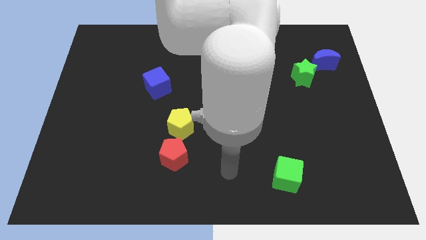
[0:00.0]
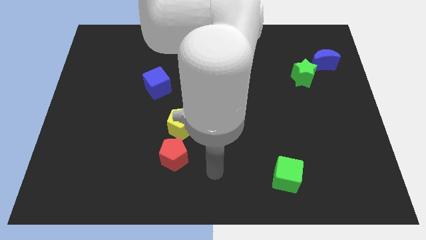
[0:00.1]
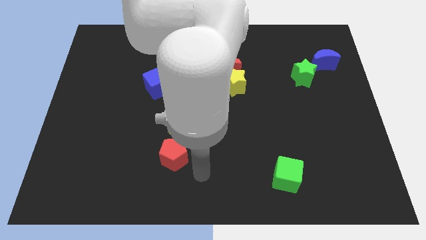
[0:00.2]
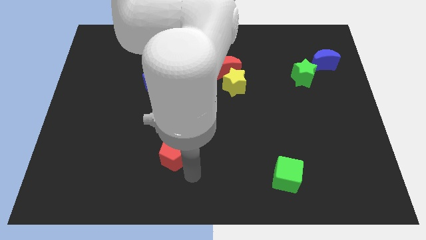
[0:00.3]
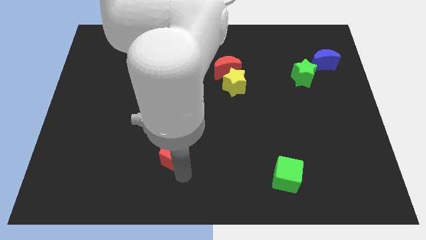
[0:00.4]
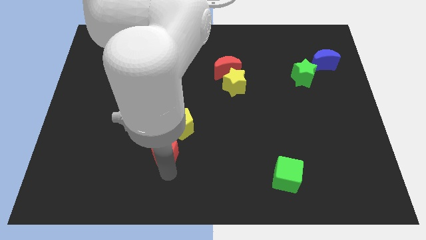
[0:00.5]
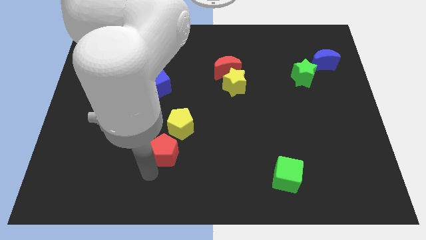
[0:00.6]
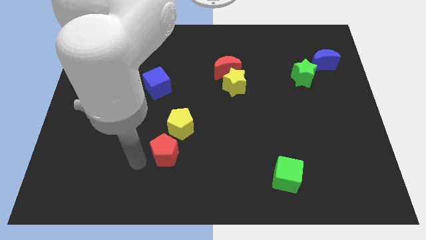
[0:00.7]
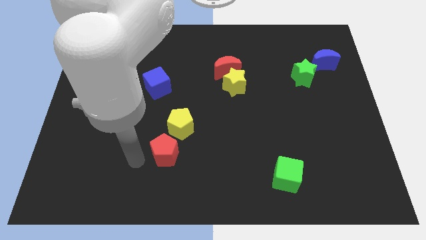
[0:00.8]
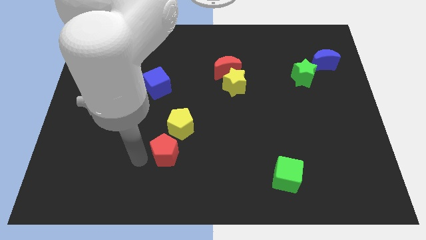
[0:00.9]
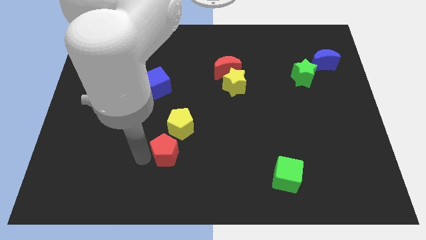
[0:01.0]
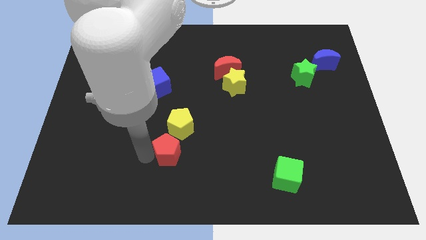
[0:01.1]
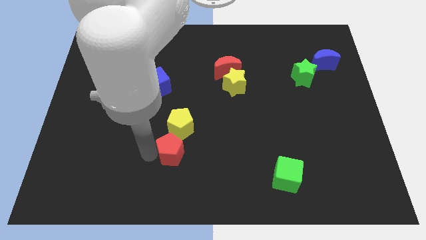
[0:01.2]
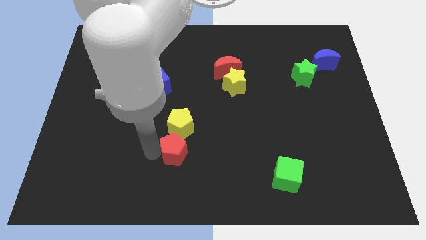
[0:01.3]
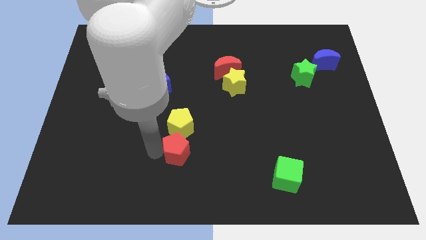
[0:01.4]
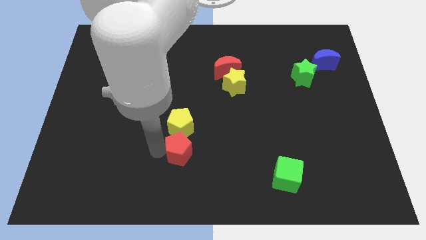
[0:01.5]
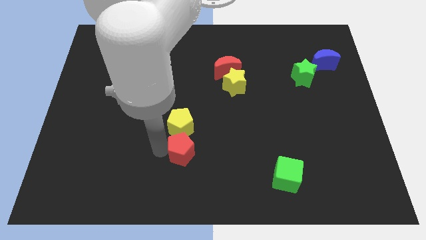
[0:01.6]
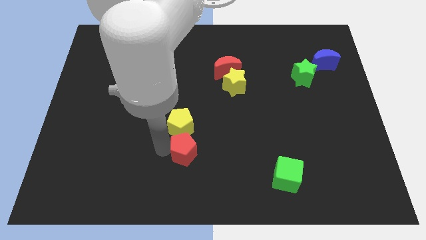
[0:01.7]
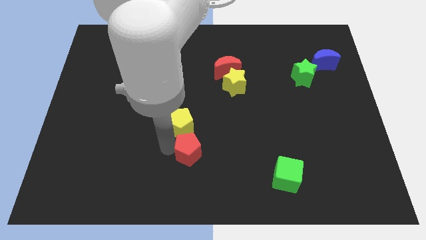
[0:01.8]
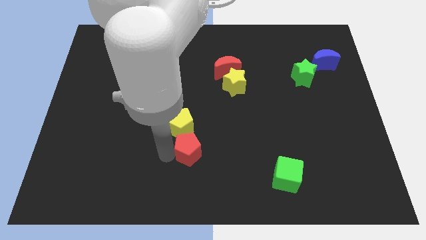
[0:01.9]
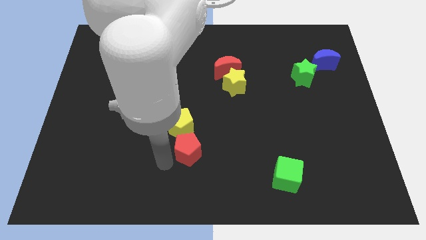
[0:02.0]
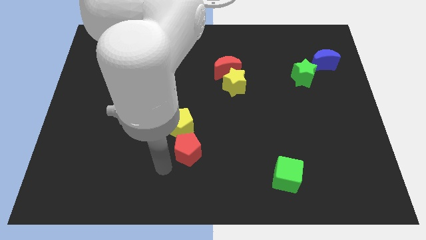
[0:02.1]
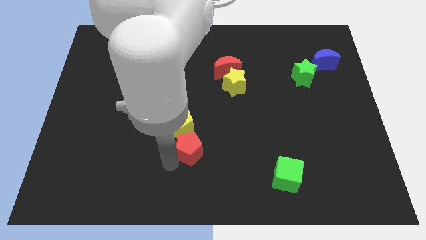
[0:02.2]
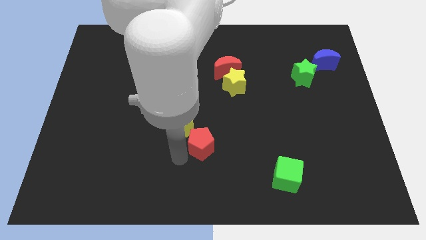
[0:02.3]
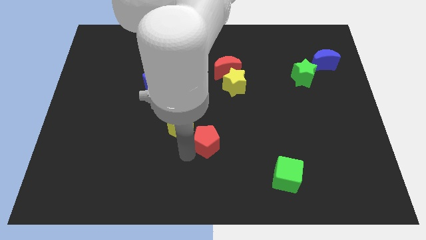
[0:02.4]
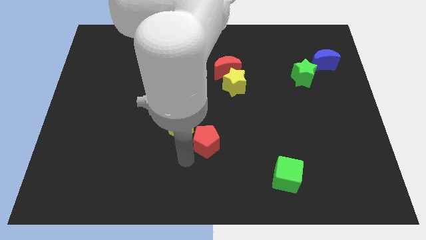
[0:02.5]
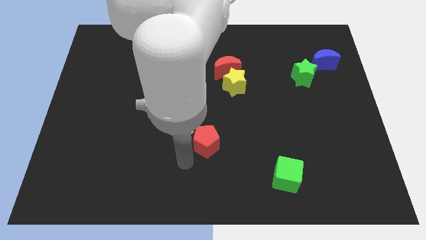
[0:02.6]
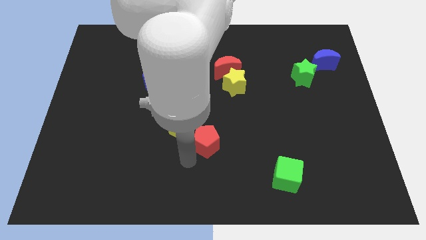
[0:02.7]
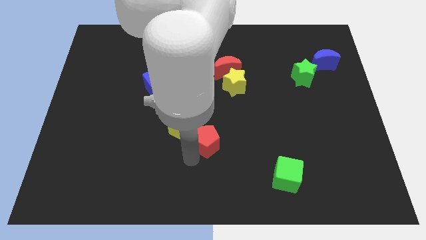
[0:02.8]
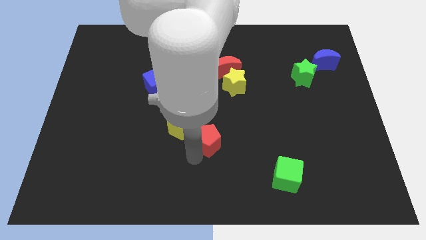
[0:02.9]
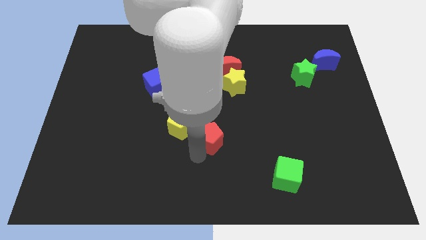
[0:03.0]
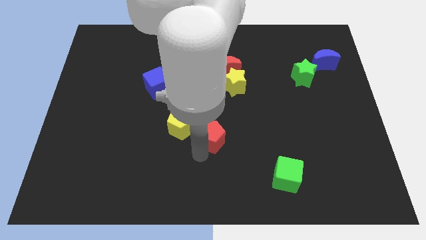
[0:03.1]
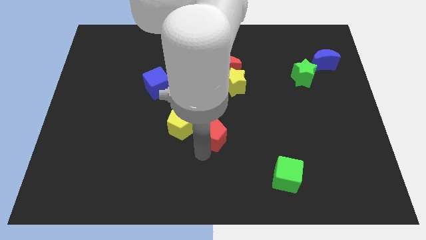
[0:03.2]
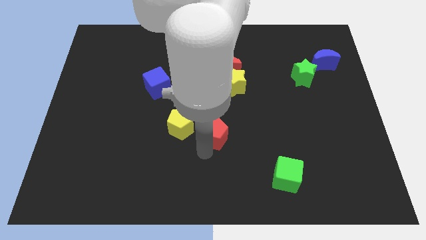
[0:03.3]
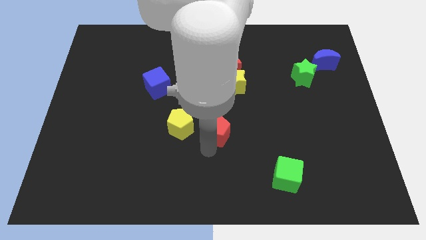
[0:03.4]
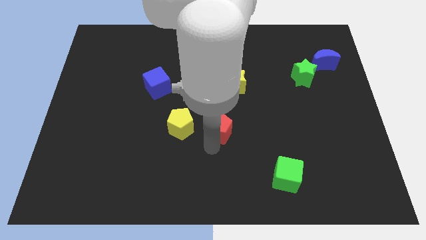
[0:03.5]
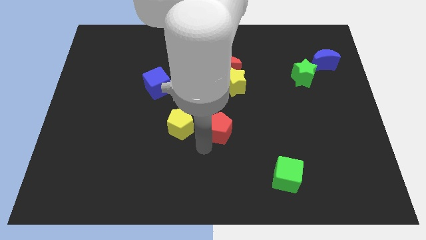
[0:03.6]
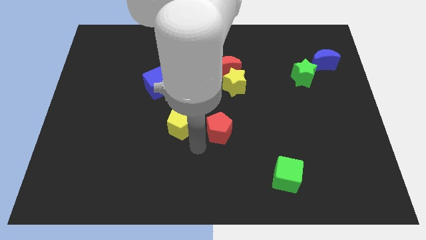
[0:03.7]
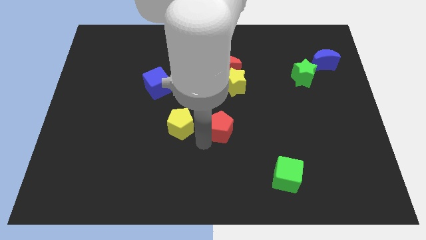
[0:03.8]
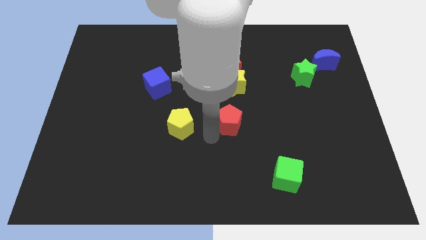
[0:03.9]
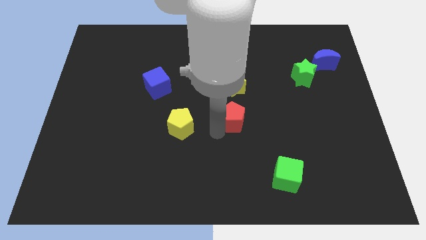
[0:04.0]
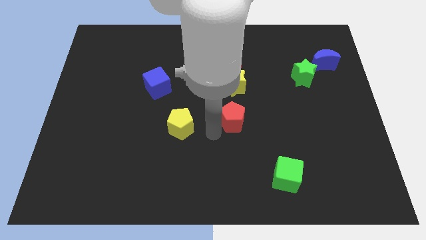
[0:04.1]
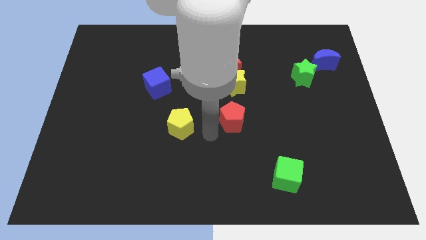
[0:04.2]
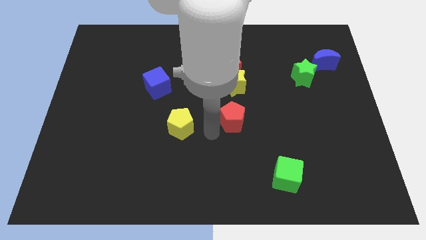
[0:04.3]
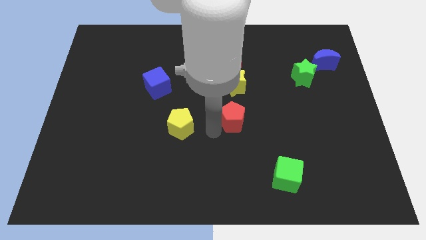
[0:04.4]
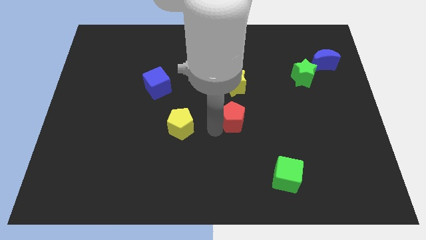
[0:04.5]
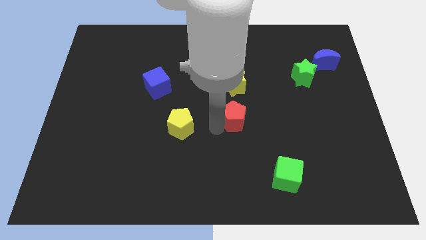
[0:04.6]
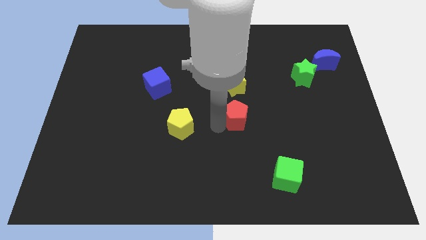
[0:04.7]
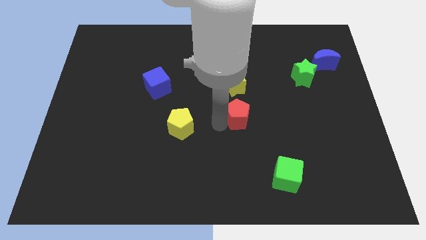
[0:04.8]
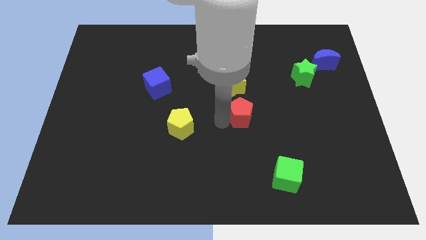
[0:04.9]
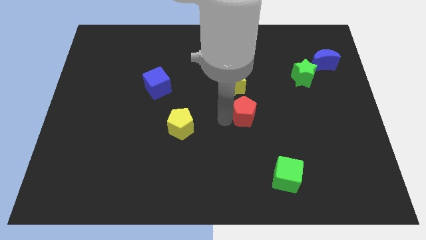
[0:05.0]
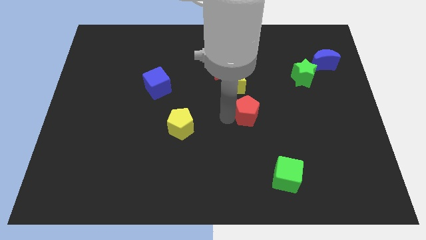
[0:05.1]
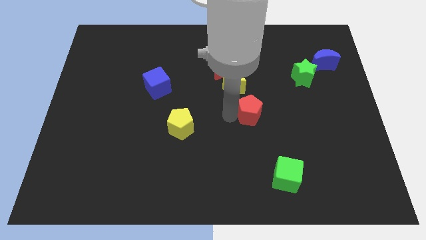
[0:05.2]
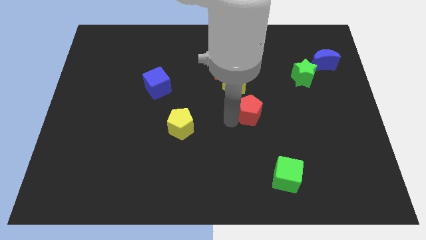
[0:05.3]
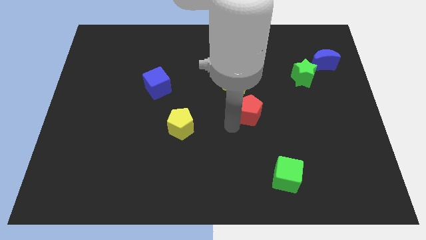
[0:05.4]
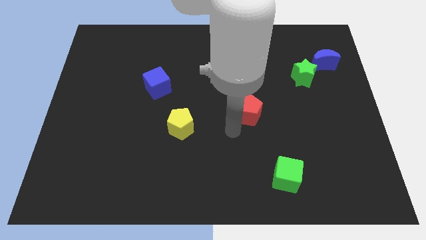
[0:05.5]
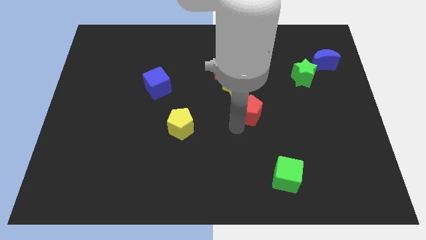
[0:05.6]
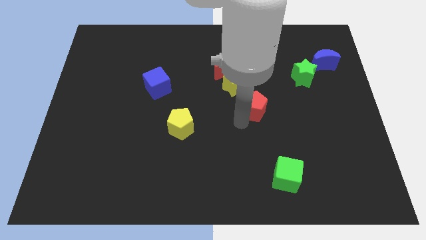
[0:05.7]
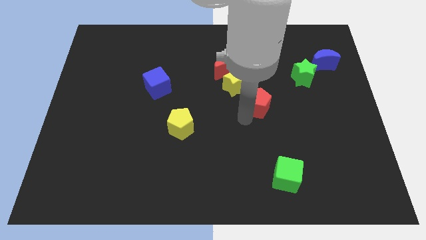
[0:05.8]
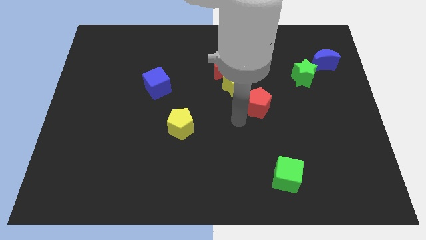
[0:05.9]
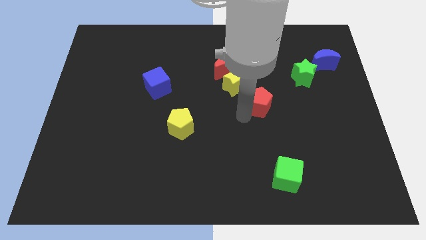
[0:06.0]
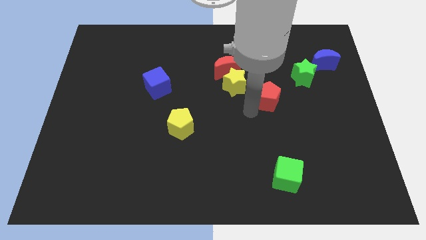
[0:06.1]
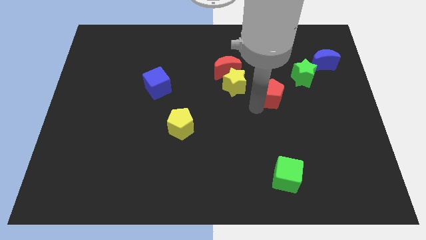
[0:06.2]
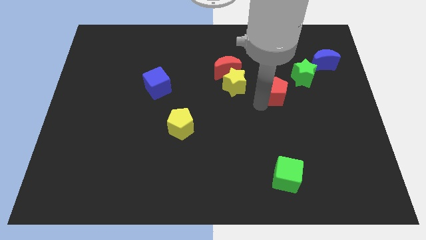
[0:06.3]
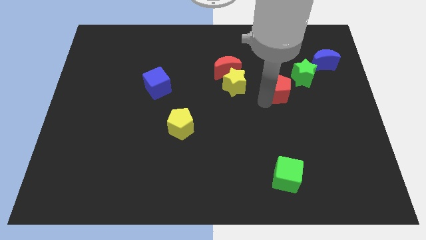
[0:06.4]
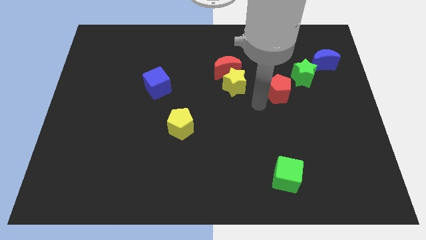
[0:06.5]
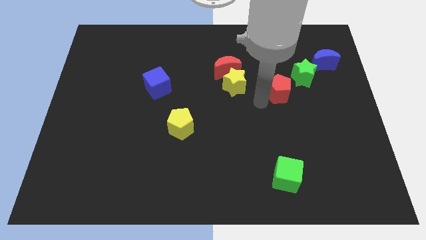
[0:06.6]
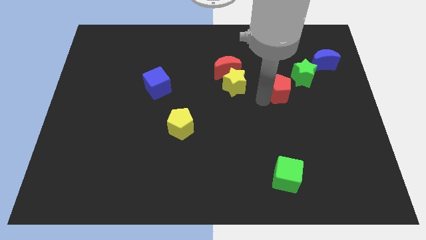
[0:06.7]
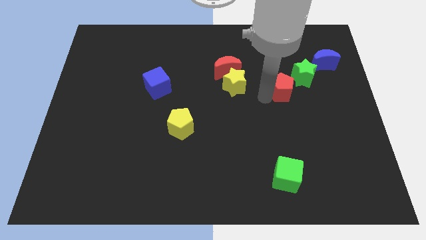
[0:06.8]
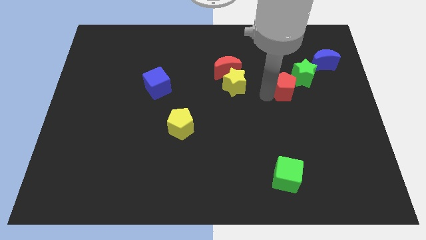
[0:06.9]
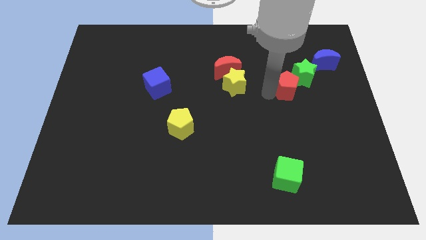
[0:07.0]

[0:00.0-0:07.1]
put the red pentagon towards the green star

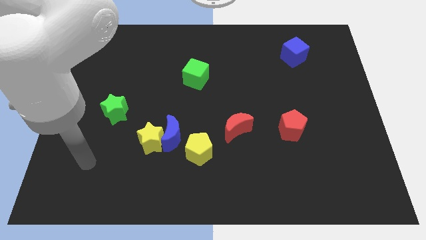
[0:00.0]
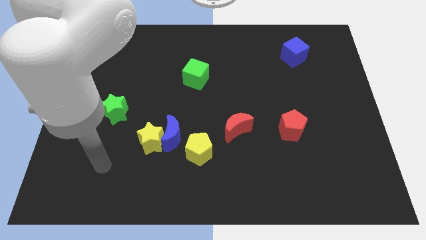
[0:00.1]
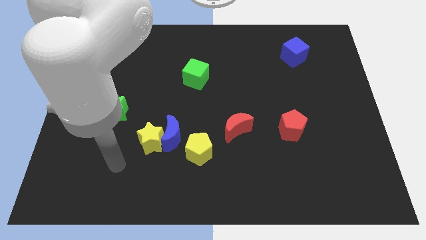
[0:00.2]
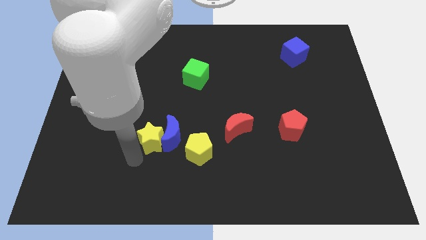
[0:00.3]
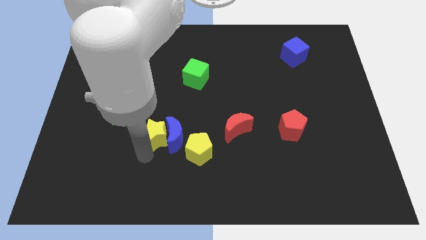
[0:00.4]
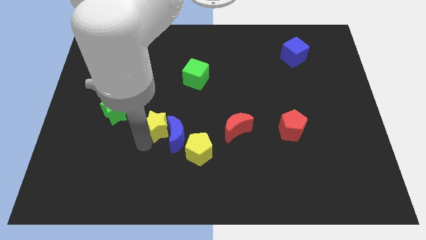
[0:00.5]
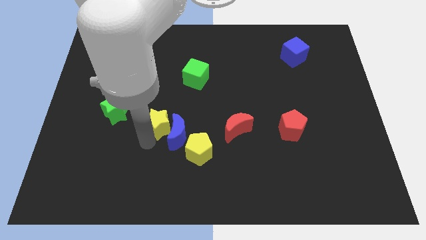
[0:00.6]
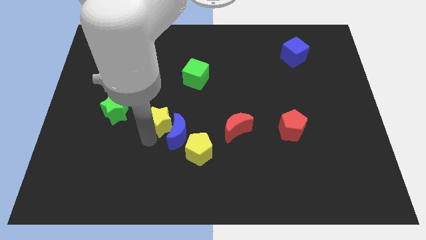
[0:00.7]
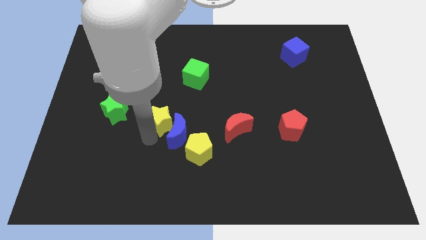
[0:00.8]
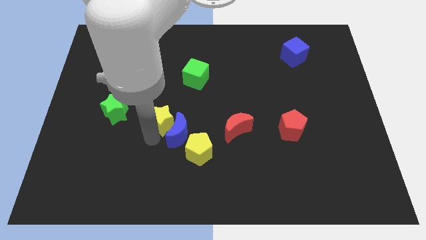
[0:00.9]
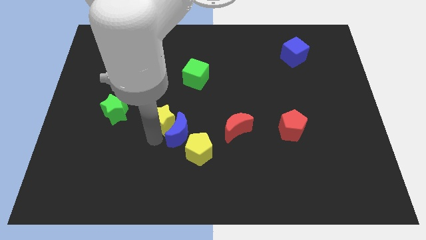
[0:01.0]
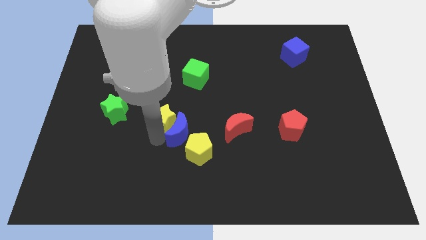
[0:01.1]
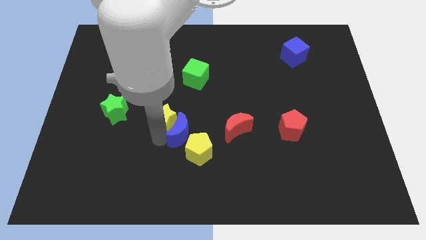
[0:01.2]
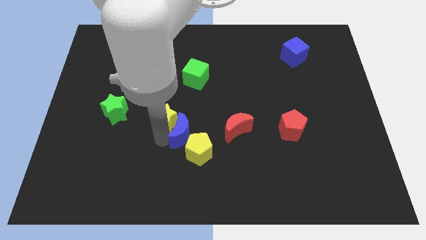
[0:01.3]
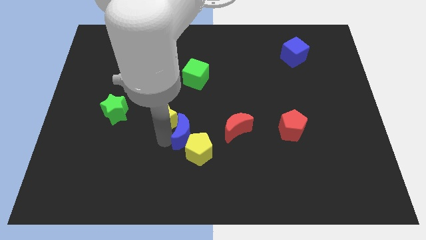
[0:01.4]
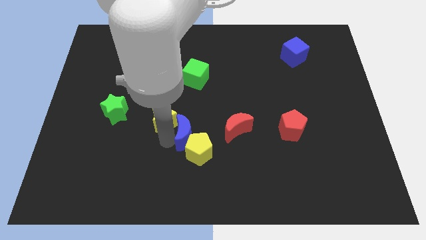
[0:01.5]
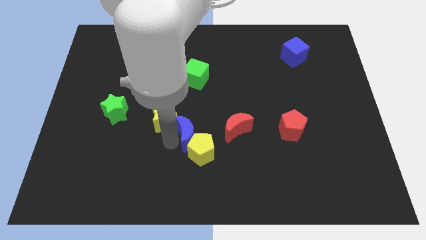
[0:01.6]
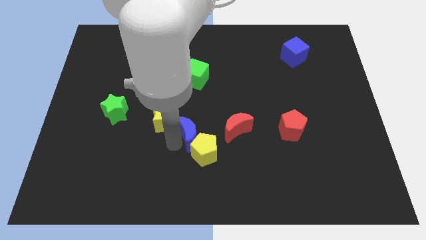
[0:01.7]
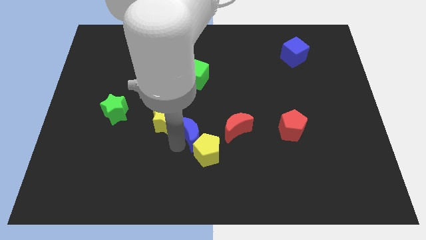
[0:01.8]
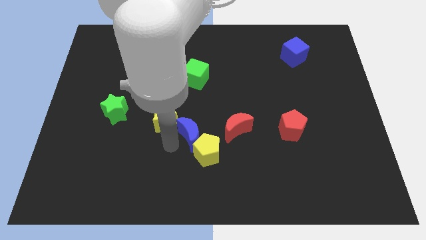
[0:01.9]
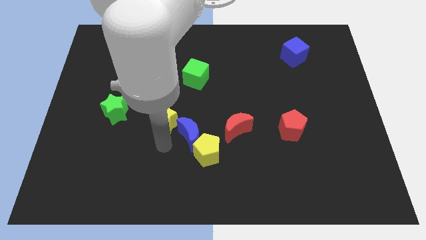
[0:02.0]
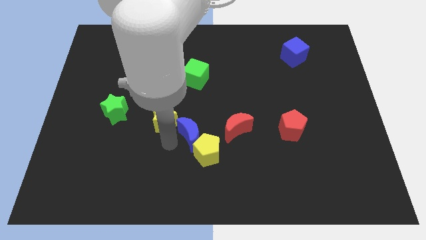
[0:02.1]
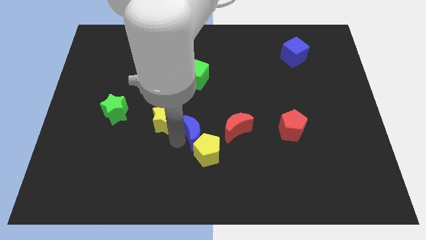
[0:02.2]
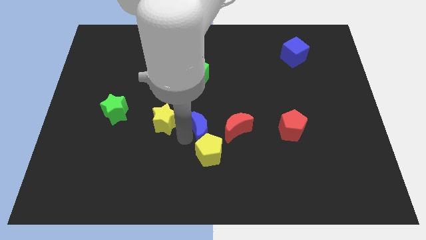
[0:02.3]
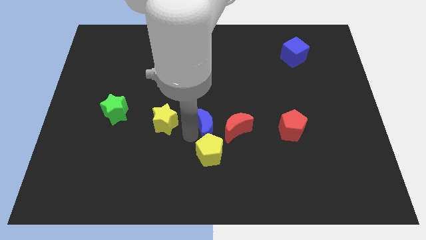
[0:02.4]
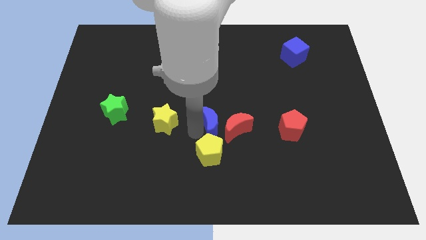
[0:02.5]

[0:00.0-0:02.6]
push the blue moon close to the red moon
